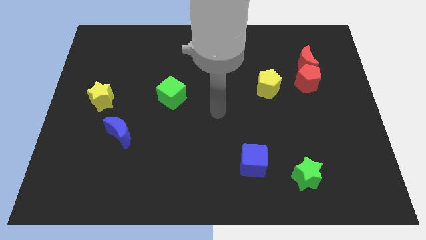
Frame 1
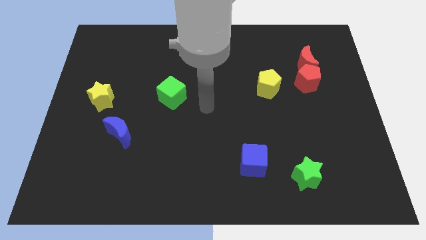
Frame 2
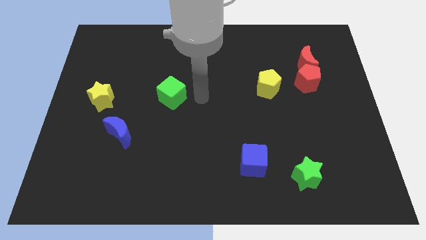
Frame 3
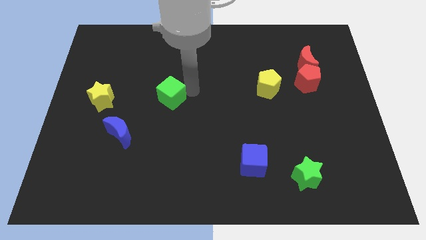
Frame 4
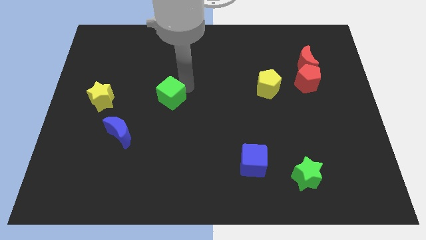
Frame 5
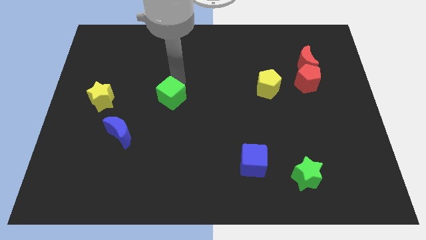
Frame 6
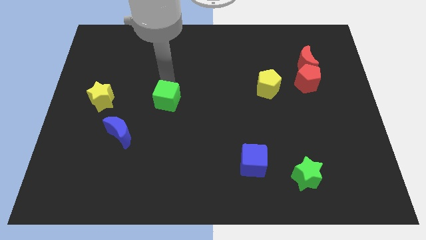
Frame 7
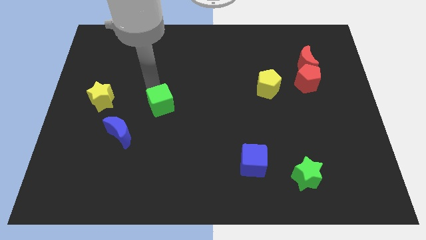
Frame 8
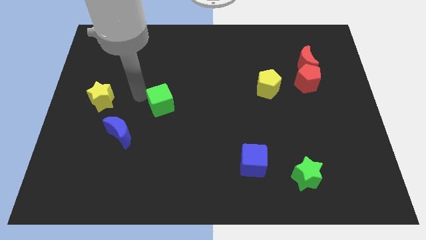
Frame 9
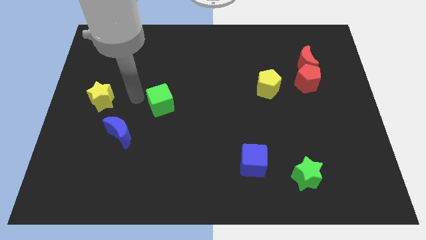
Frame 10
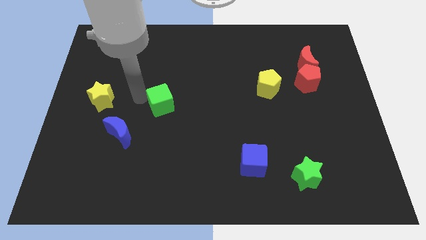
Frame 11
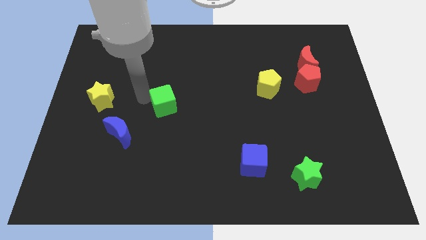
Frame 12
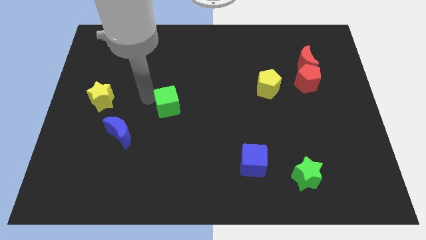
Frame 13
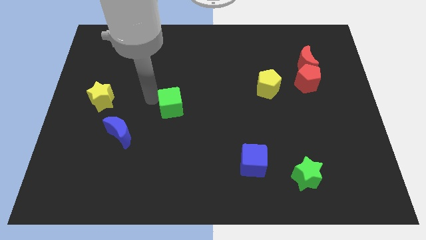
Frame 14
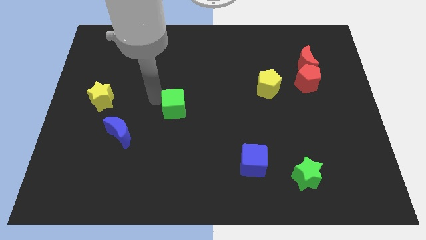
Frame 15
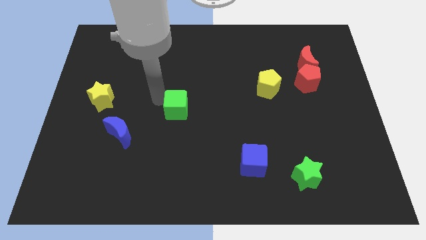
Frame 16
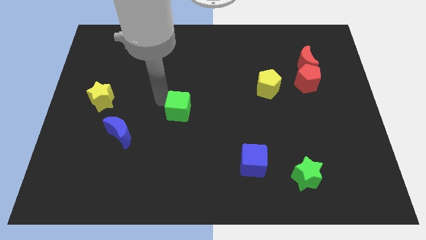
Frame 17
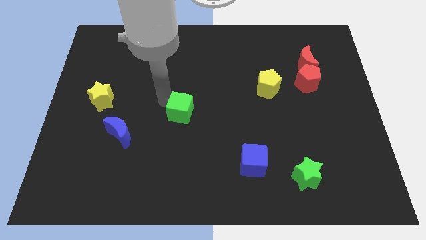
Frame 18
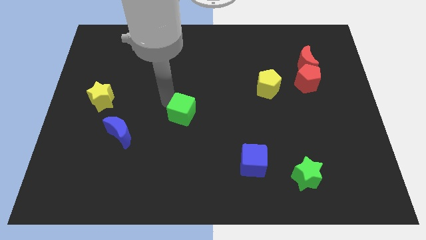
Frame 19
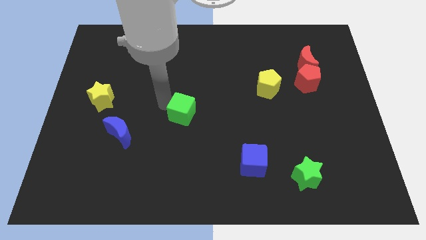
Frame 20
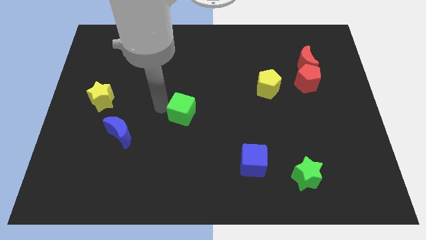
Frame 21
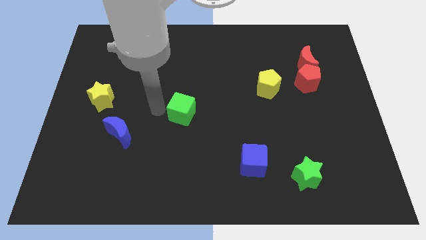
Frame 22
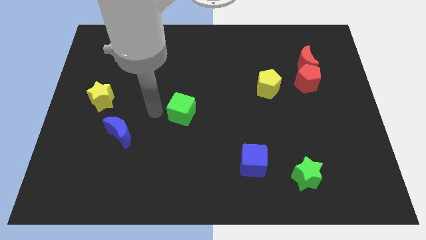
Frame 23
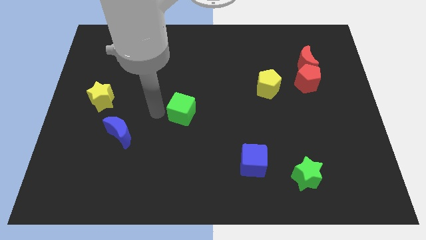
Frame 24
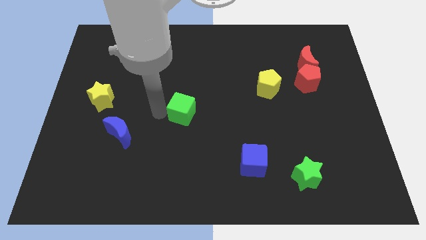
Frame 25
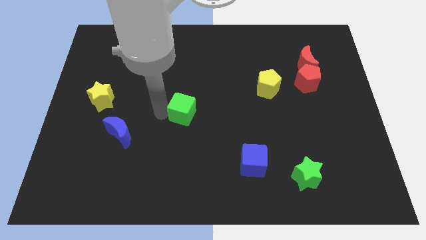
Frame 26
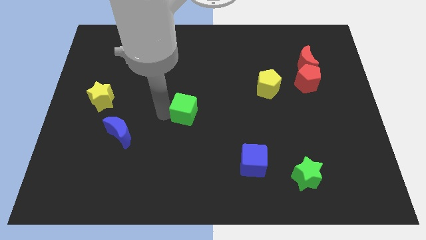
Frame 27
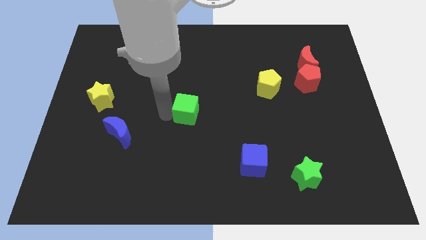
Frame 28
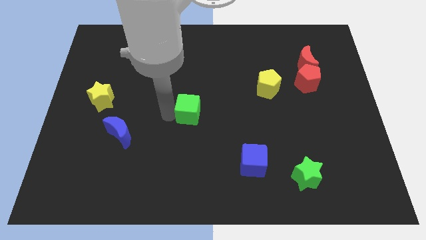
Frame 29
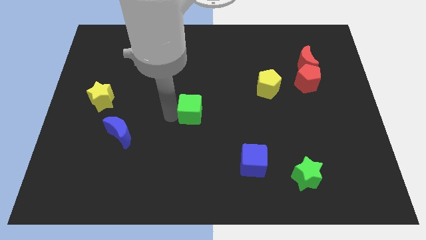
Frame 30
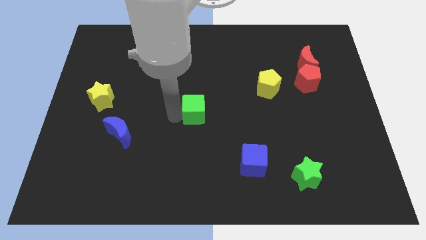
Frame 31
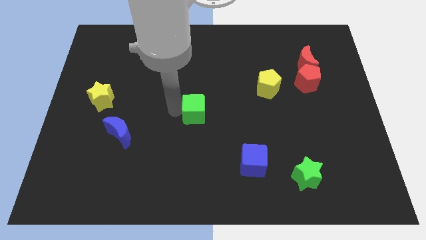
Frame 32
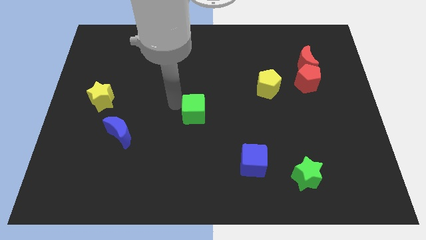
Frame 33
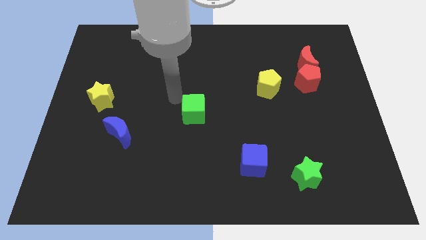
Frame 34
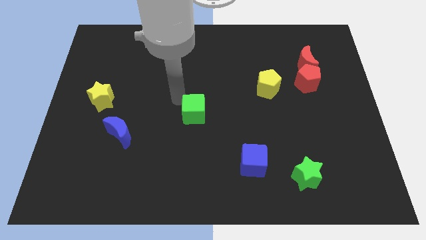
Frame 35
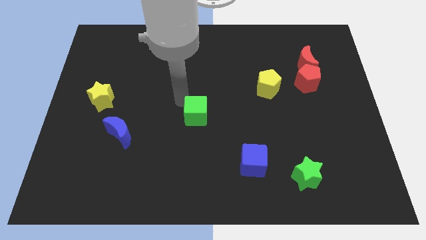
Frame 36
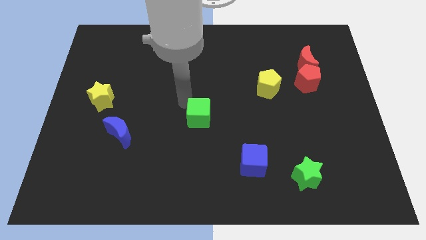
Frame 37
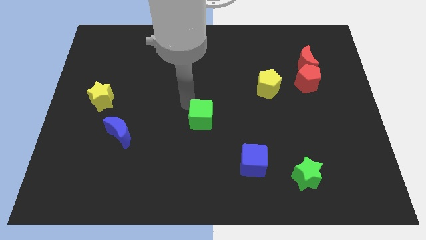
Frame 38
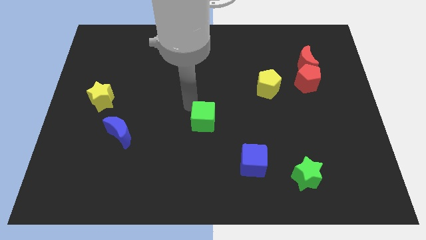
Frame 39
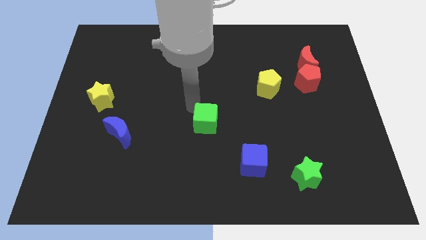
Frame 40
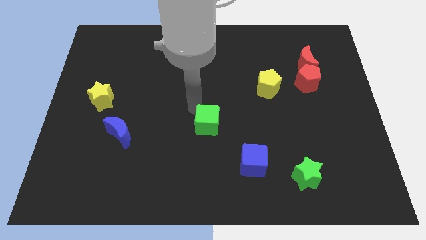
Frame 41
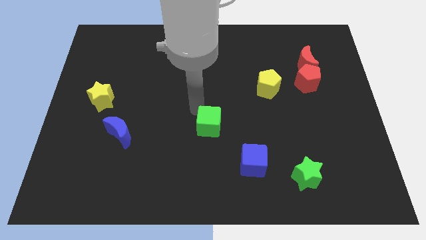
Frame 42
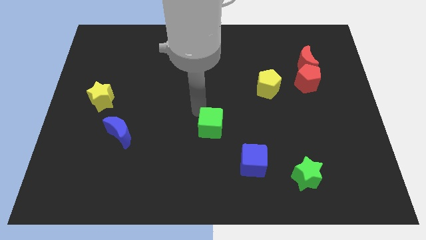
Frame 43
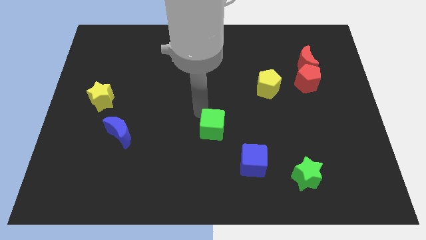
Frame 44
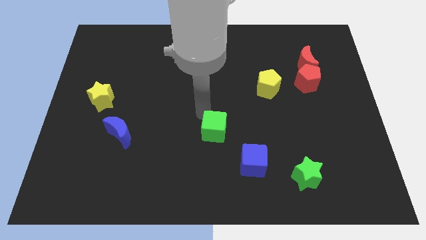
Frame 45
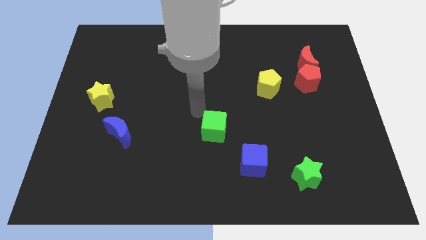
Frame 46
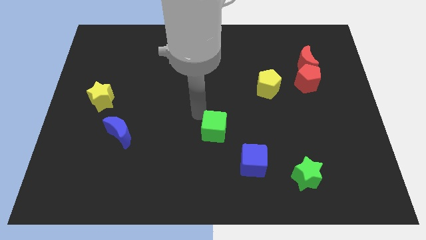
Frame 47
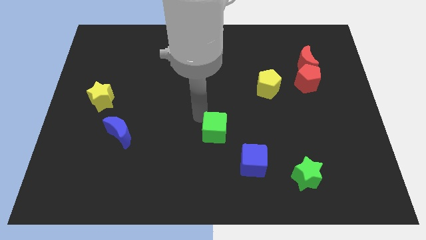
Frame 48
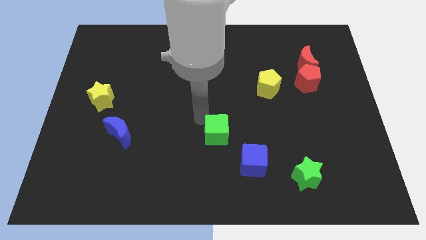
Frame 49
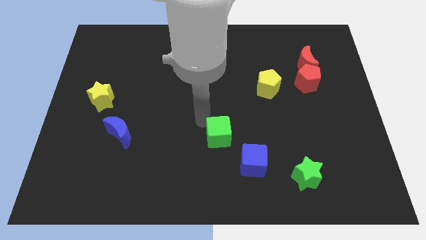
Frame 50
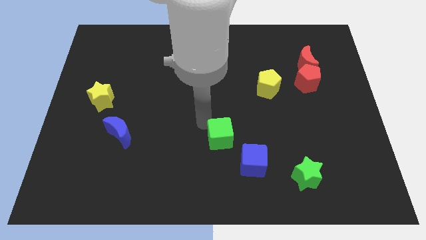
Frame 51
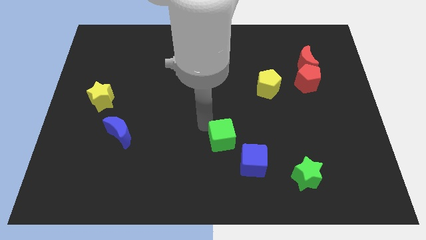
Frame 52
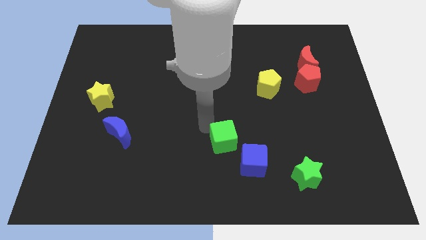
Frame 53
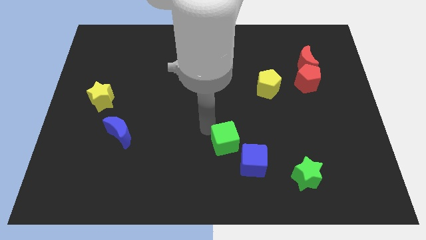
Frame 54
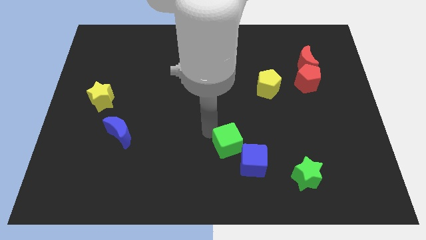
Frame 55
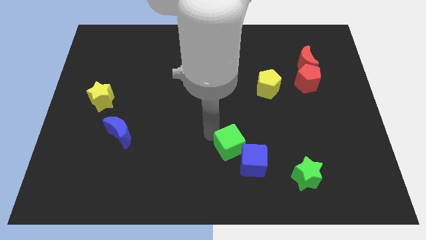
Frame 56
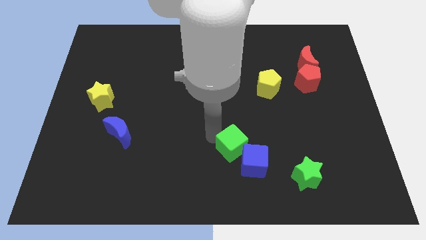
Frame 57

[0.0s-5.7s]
slide the green cube towards the blue cube

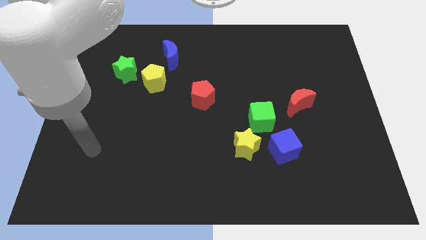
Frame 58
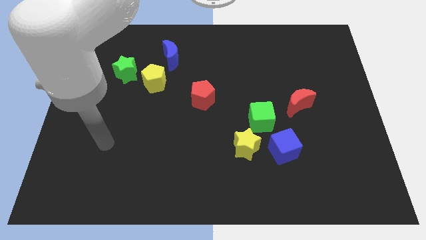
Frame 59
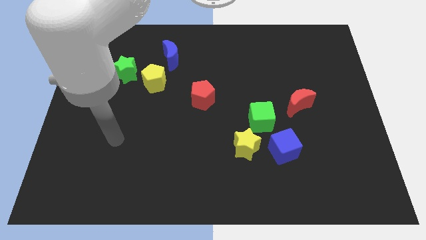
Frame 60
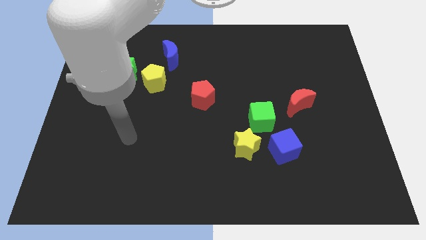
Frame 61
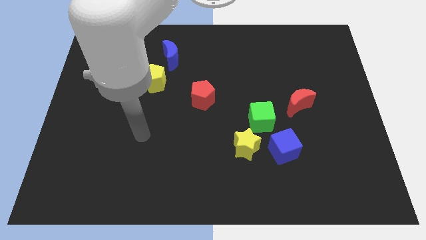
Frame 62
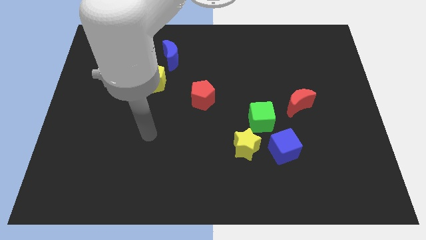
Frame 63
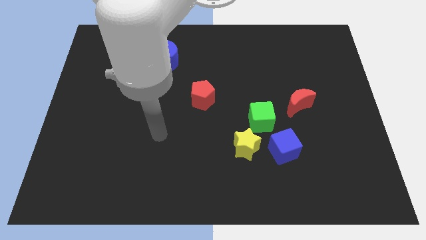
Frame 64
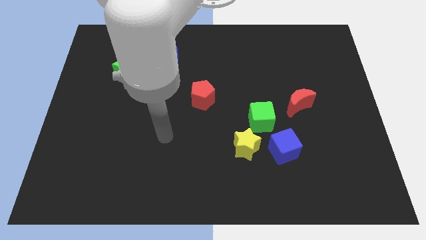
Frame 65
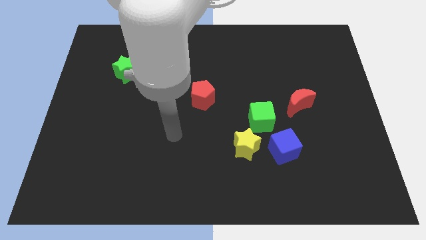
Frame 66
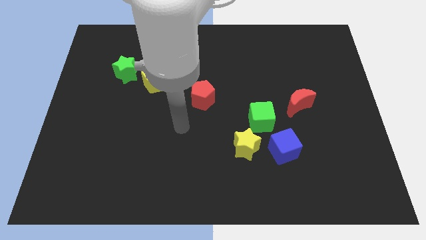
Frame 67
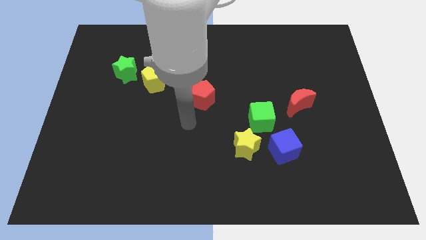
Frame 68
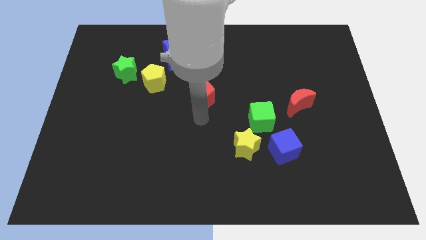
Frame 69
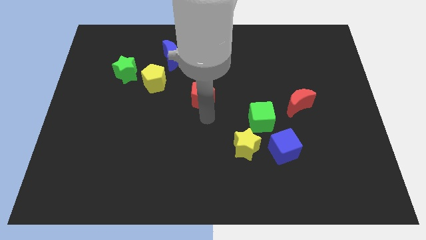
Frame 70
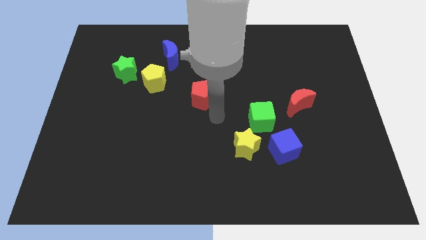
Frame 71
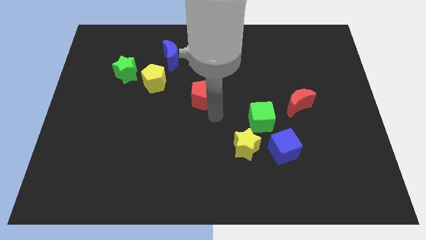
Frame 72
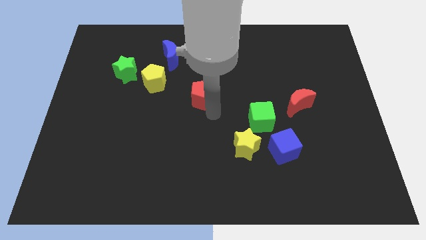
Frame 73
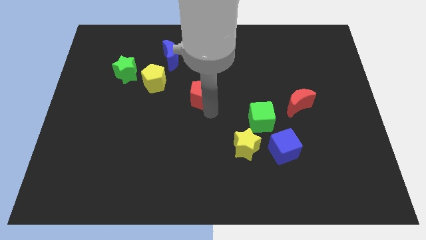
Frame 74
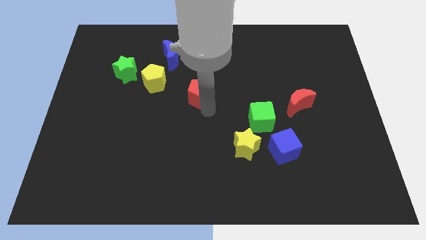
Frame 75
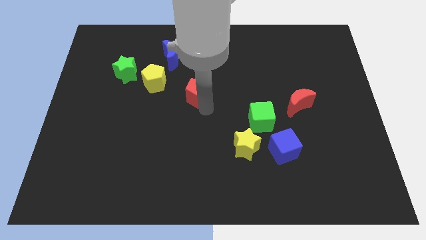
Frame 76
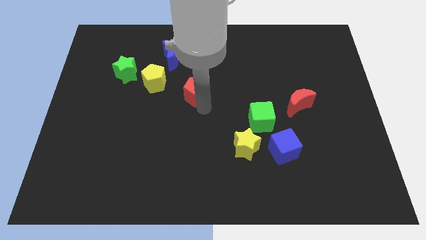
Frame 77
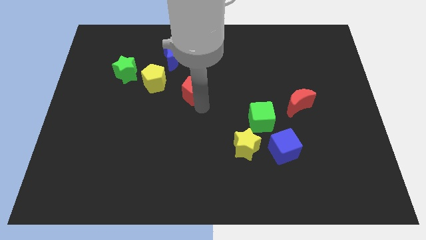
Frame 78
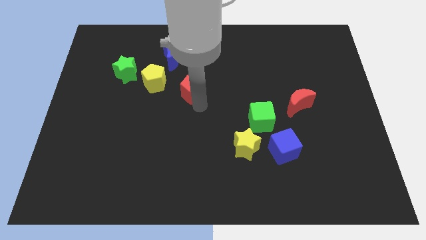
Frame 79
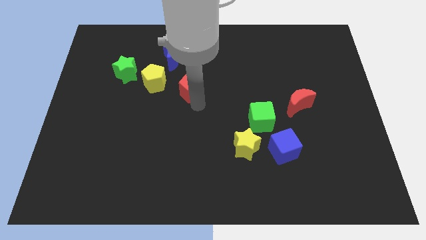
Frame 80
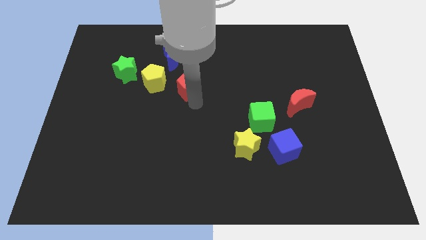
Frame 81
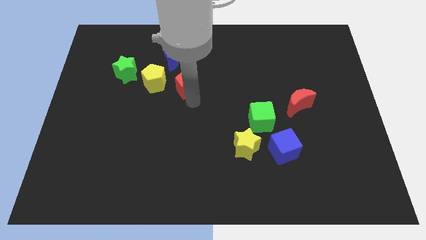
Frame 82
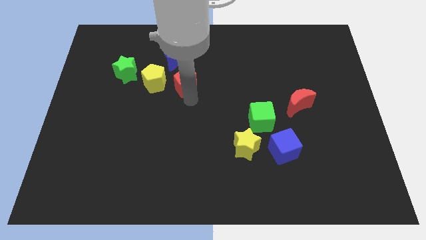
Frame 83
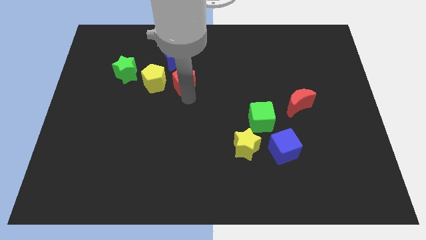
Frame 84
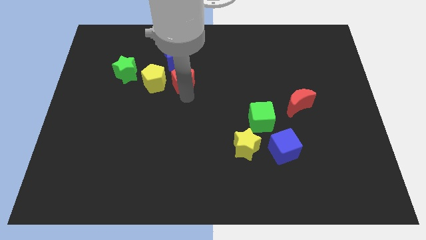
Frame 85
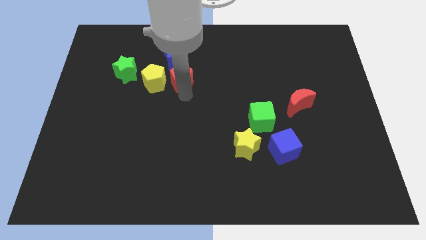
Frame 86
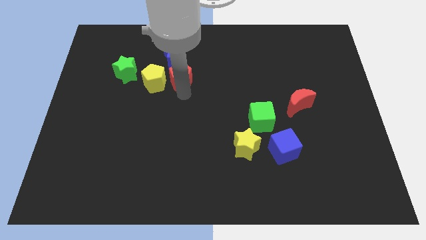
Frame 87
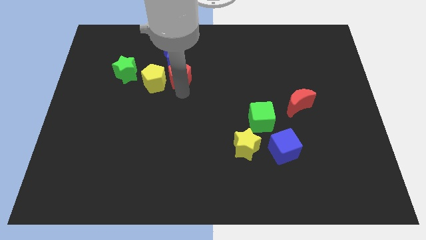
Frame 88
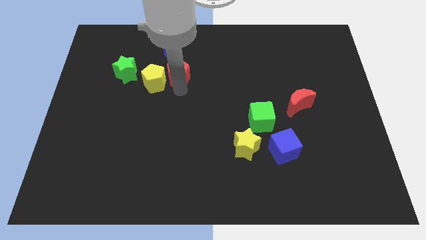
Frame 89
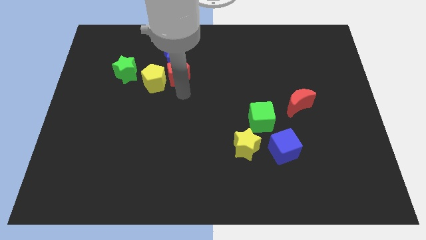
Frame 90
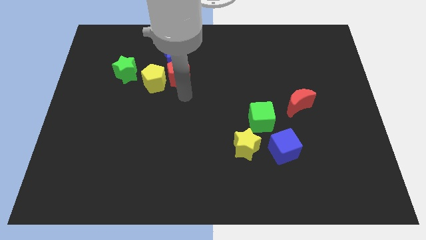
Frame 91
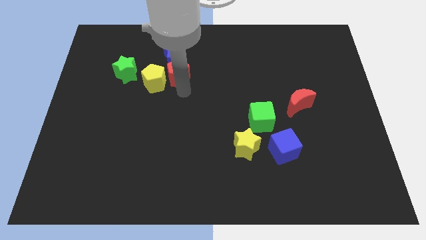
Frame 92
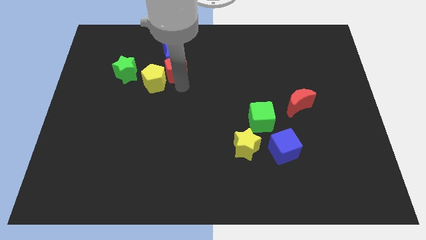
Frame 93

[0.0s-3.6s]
move the red pentagon to the blue moon
